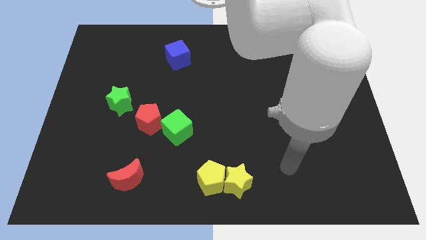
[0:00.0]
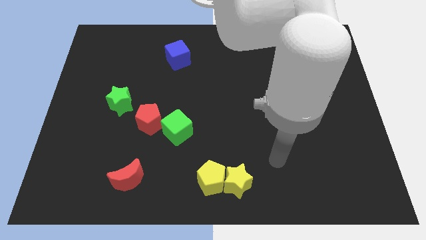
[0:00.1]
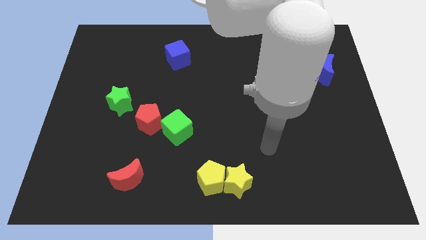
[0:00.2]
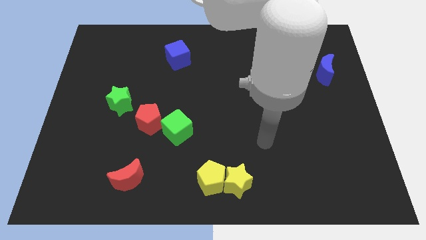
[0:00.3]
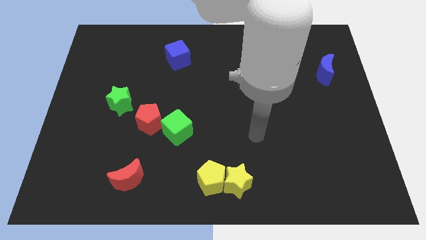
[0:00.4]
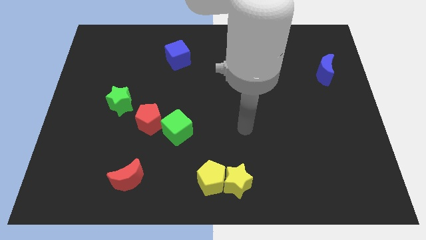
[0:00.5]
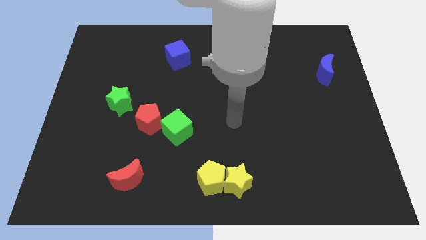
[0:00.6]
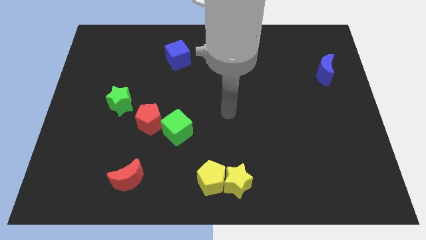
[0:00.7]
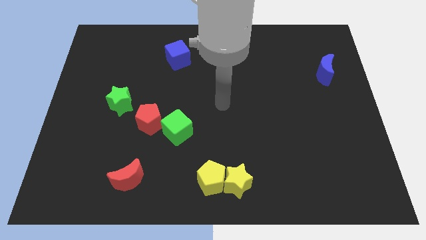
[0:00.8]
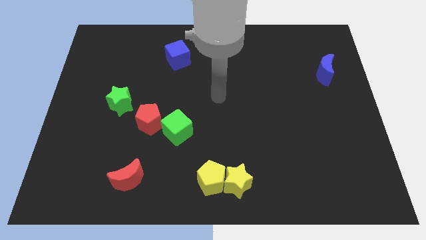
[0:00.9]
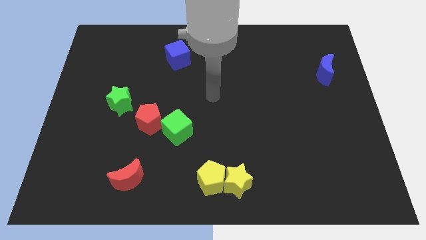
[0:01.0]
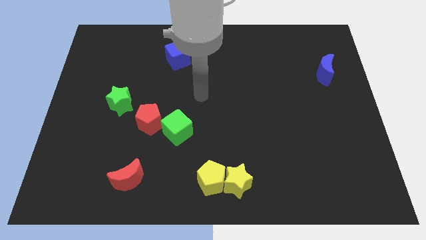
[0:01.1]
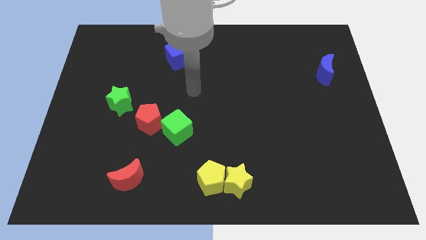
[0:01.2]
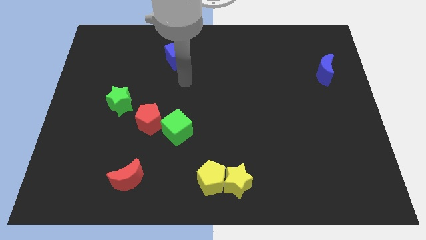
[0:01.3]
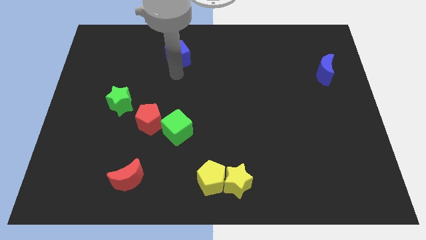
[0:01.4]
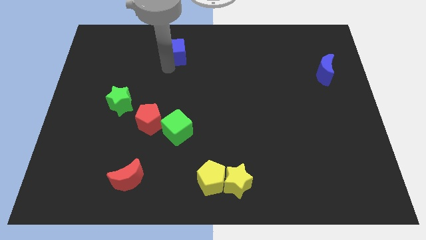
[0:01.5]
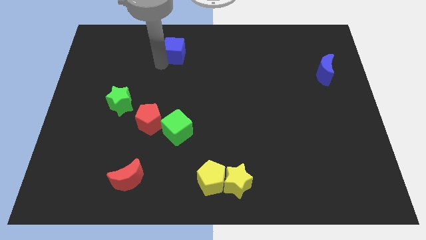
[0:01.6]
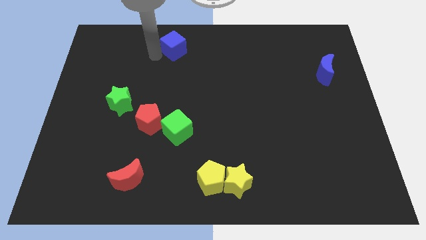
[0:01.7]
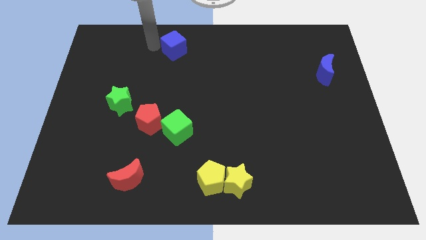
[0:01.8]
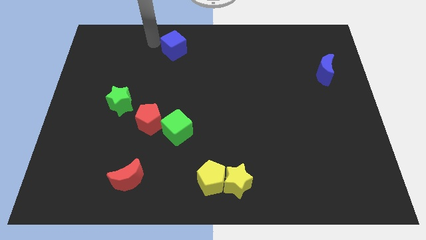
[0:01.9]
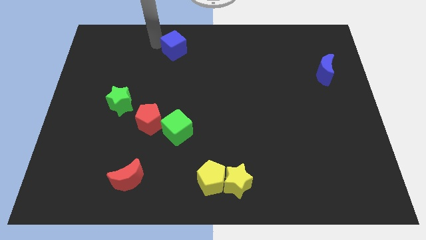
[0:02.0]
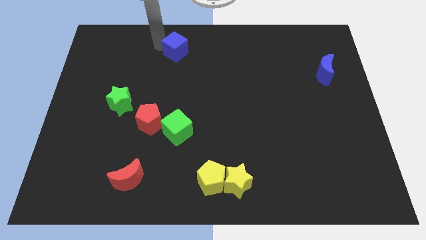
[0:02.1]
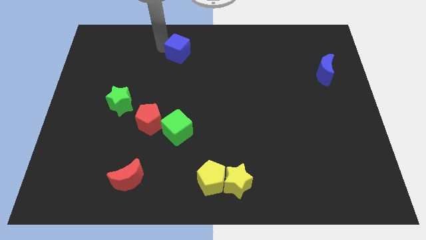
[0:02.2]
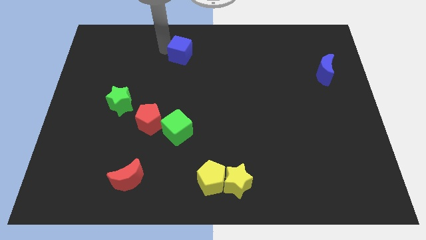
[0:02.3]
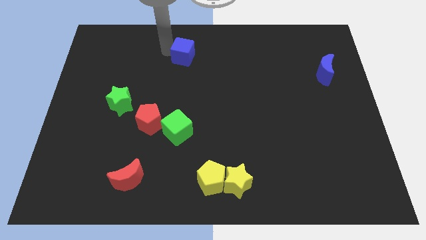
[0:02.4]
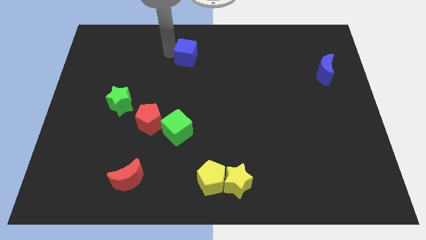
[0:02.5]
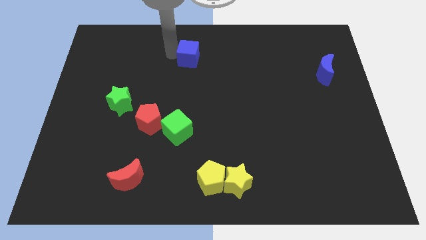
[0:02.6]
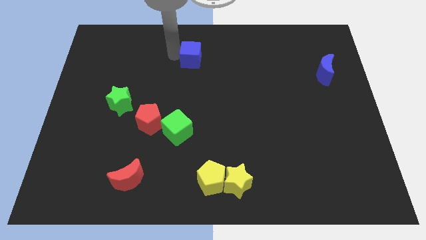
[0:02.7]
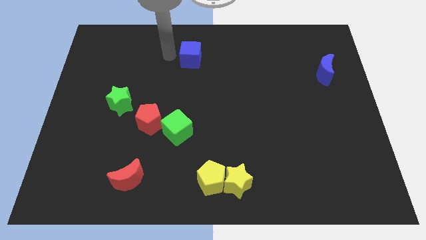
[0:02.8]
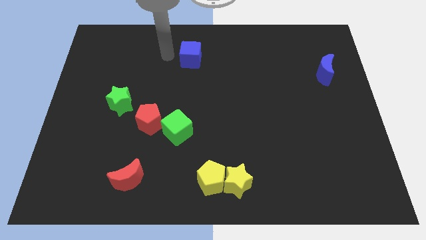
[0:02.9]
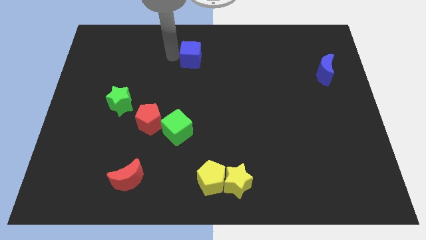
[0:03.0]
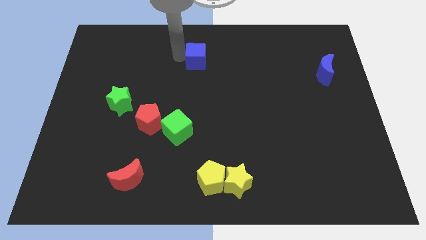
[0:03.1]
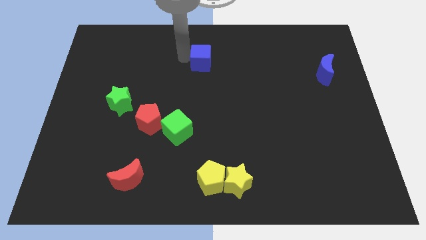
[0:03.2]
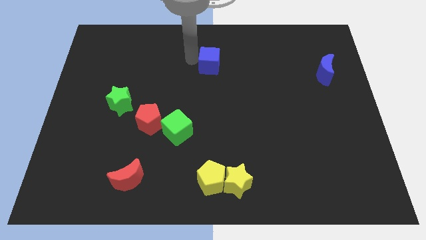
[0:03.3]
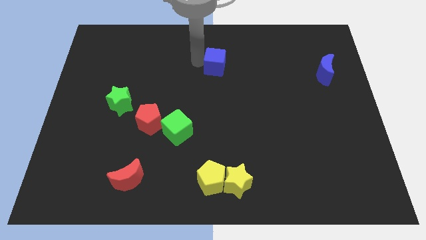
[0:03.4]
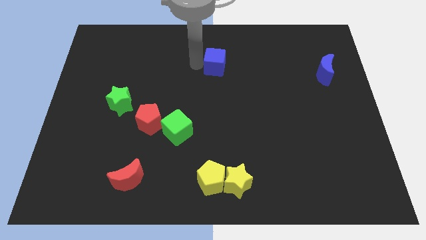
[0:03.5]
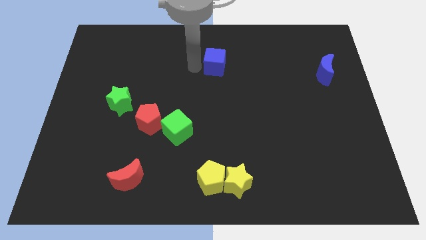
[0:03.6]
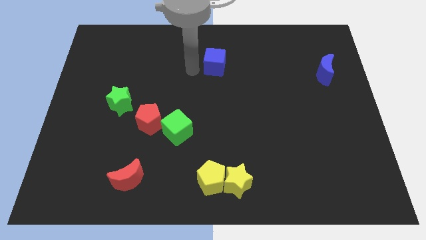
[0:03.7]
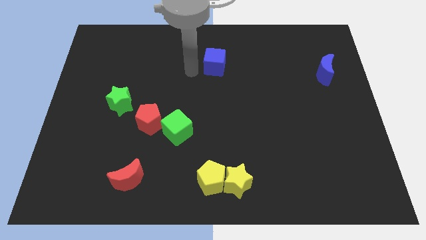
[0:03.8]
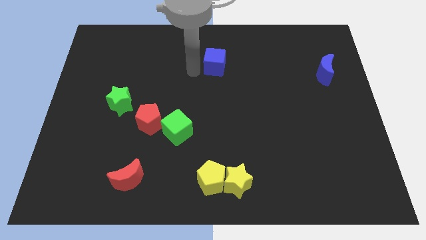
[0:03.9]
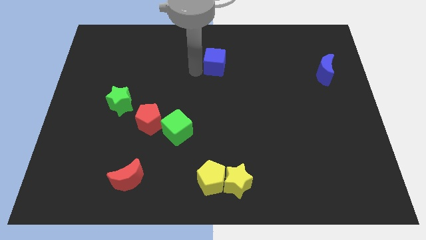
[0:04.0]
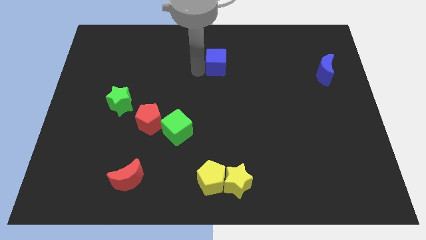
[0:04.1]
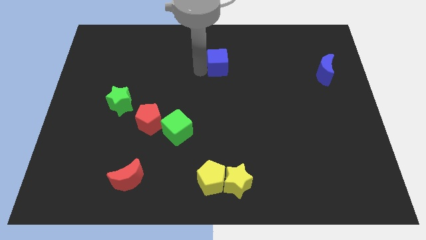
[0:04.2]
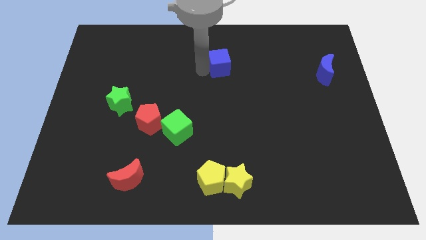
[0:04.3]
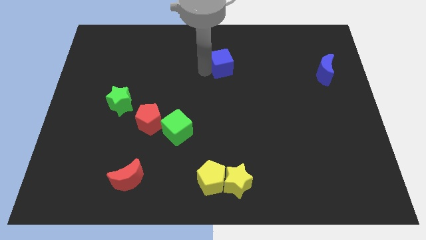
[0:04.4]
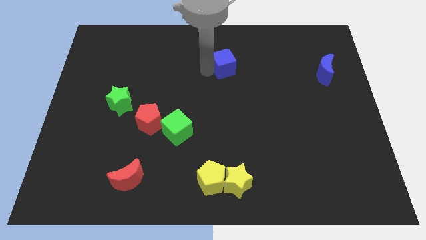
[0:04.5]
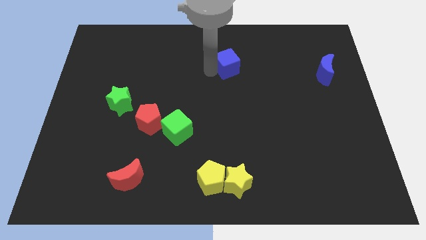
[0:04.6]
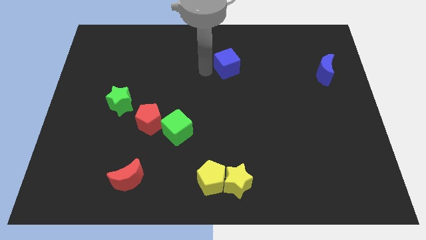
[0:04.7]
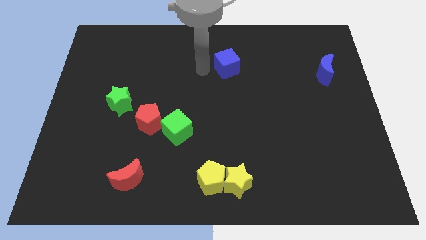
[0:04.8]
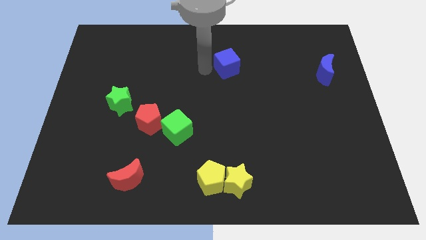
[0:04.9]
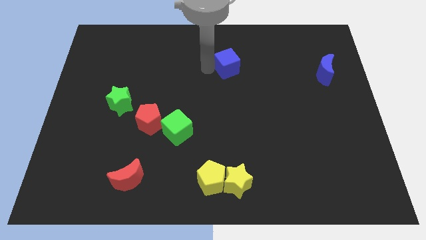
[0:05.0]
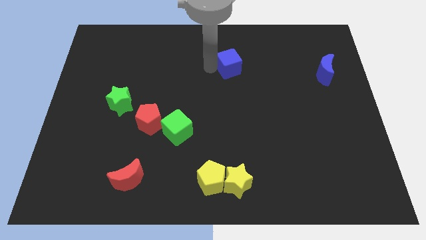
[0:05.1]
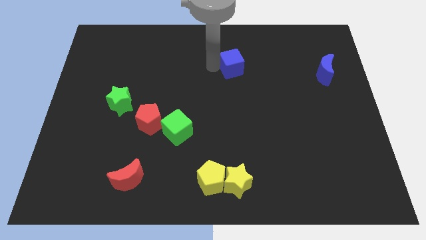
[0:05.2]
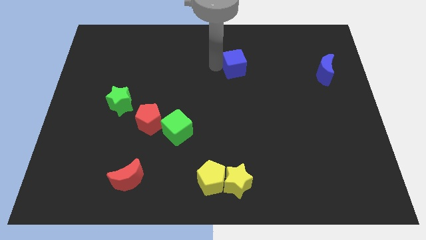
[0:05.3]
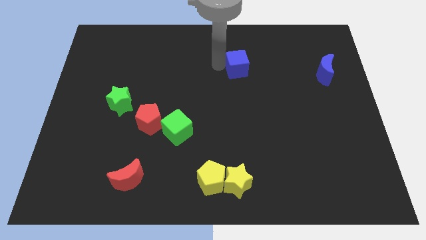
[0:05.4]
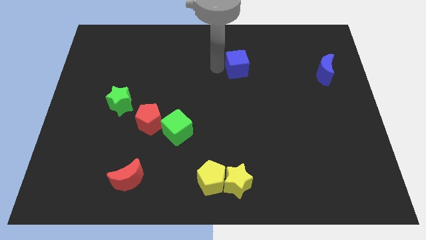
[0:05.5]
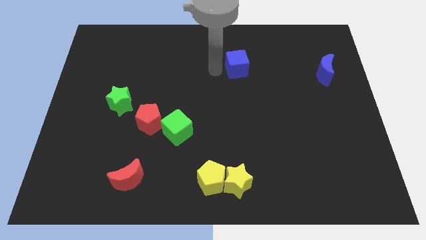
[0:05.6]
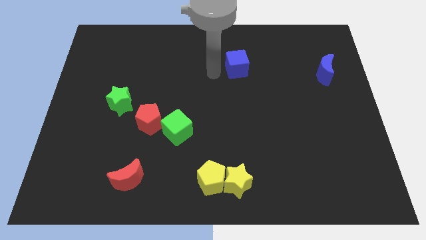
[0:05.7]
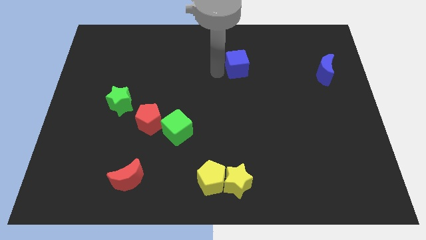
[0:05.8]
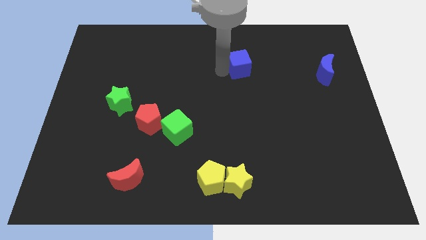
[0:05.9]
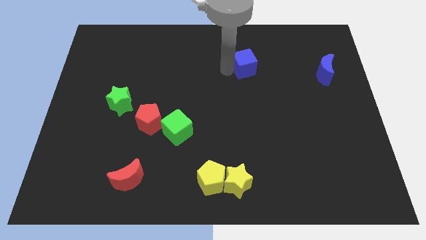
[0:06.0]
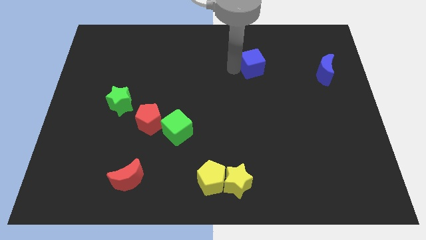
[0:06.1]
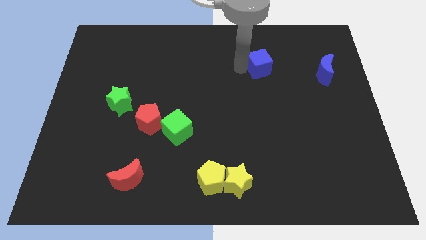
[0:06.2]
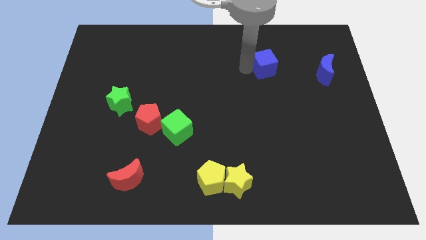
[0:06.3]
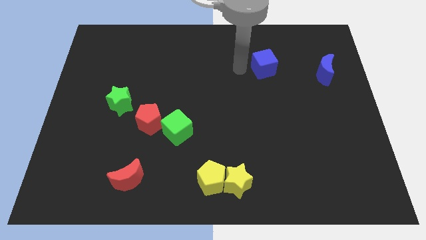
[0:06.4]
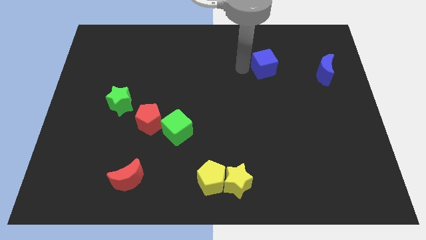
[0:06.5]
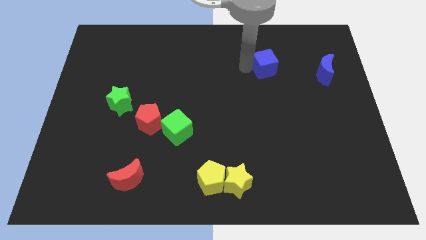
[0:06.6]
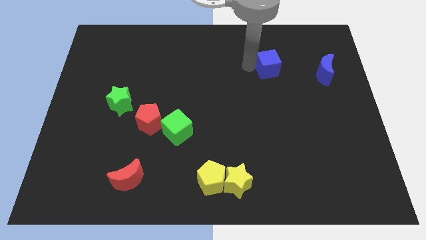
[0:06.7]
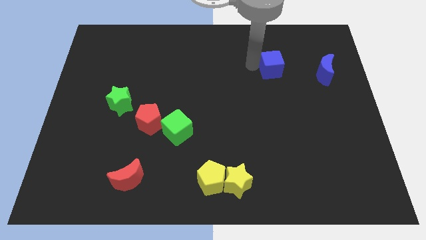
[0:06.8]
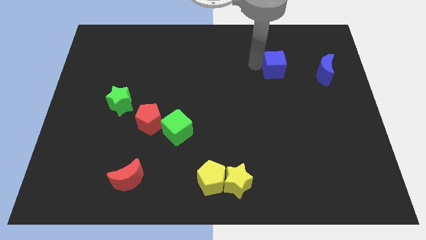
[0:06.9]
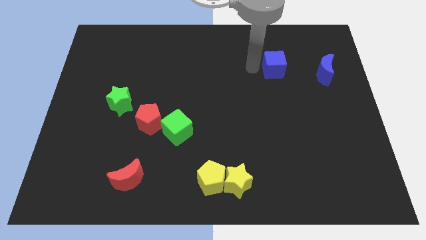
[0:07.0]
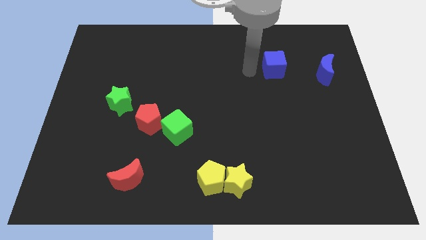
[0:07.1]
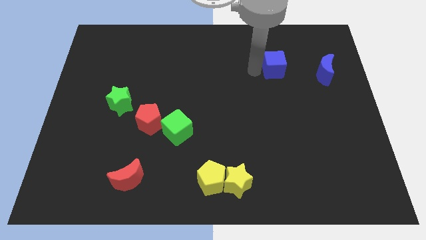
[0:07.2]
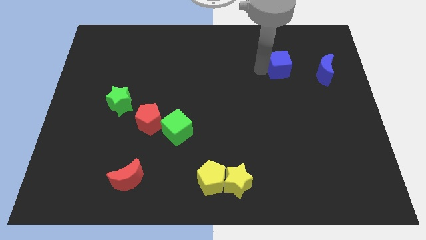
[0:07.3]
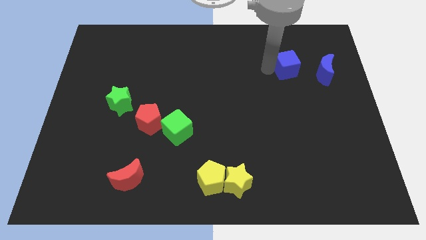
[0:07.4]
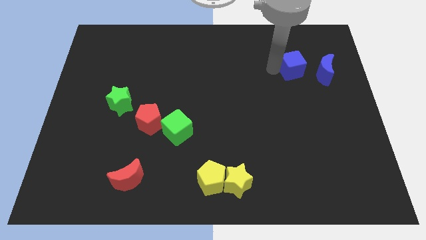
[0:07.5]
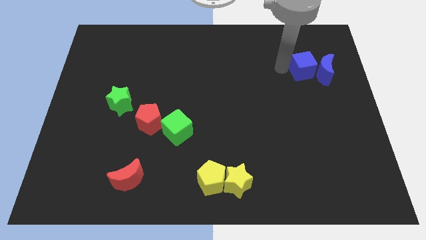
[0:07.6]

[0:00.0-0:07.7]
push the blue cube next to the blue moon
